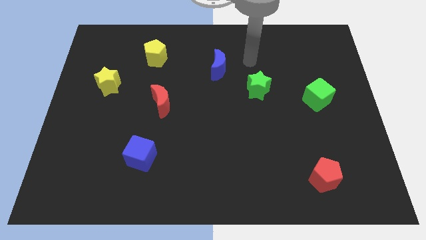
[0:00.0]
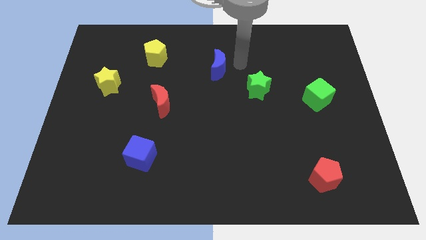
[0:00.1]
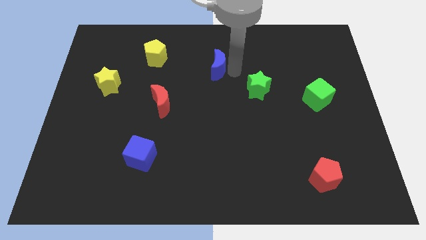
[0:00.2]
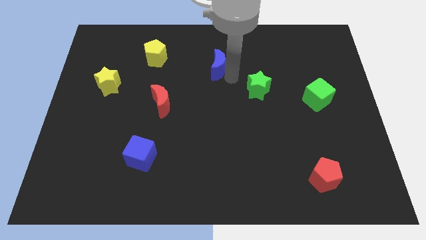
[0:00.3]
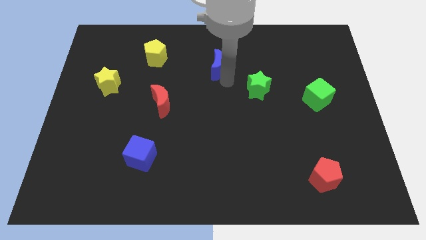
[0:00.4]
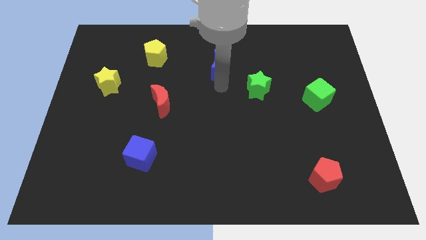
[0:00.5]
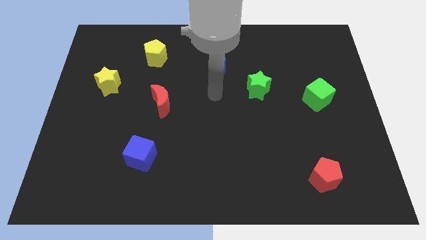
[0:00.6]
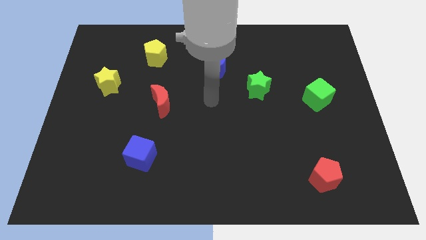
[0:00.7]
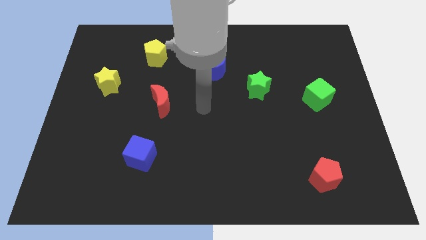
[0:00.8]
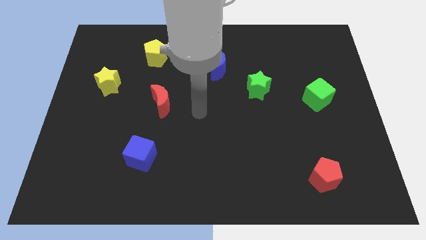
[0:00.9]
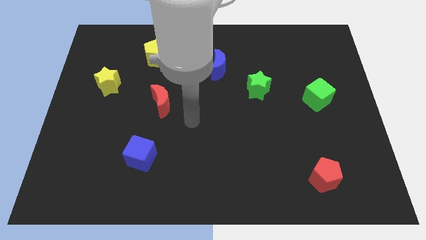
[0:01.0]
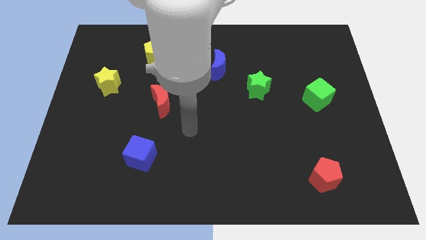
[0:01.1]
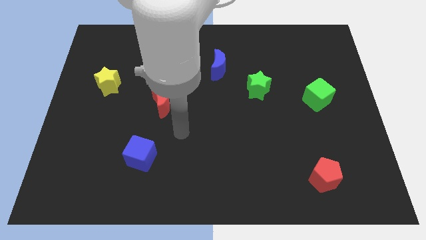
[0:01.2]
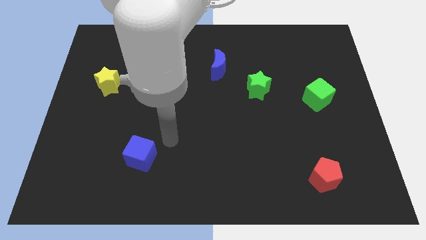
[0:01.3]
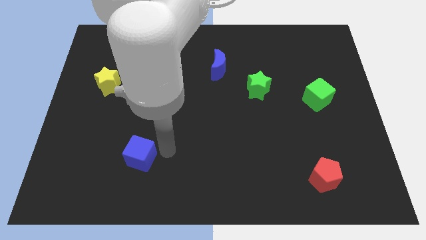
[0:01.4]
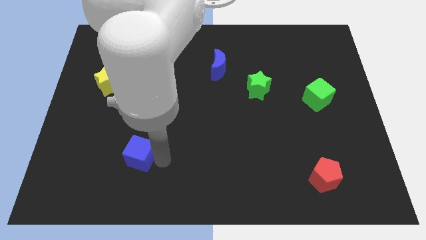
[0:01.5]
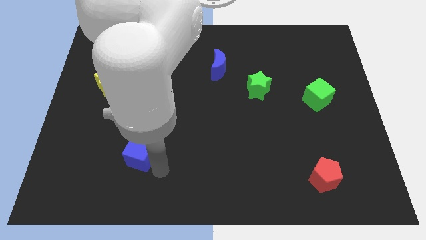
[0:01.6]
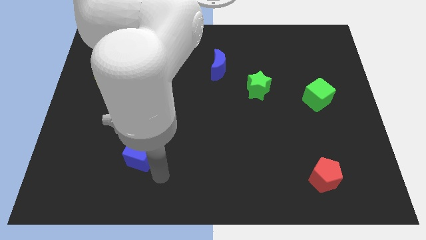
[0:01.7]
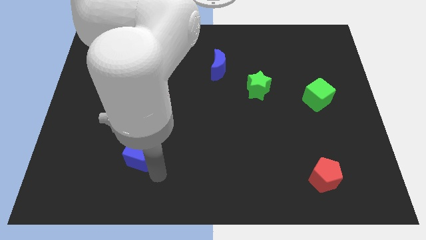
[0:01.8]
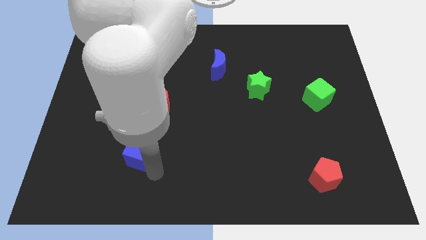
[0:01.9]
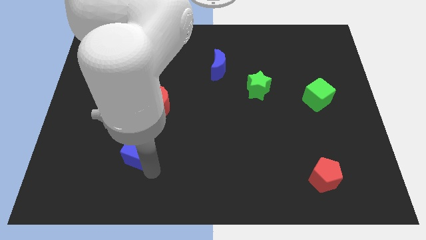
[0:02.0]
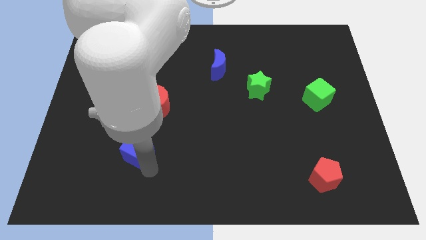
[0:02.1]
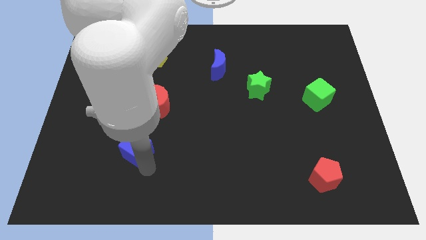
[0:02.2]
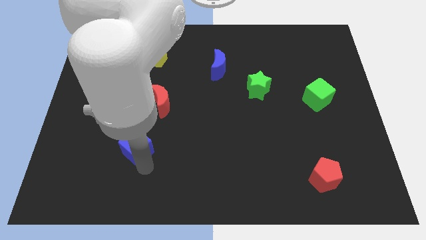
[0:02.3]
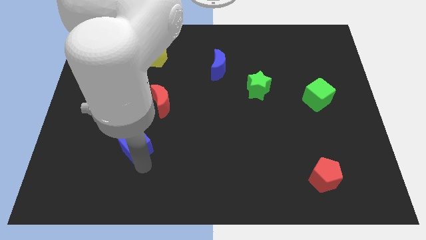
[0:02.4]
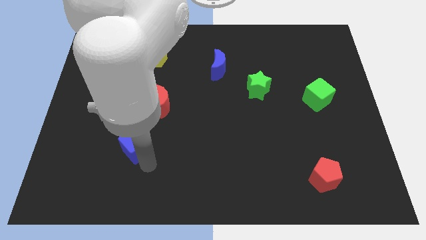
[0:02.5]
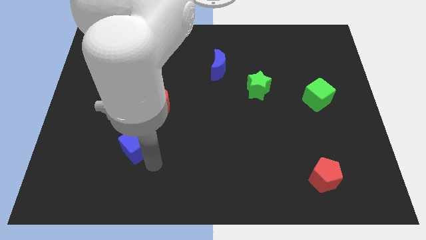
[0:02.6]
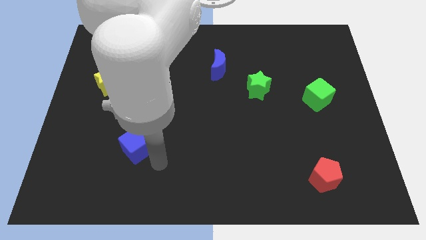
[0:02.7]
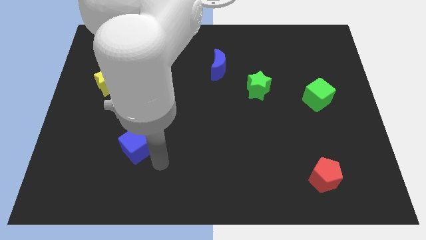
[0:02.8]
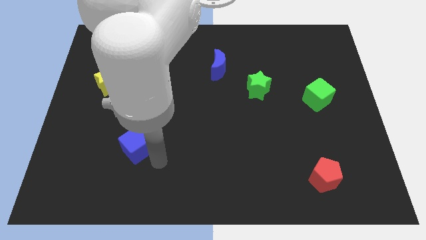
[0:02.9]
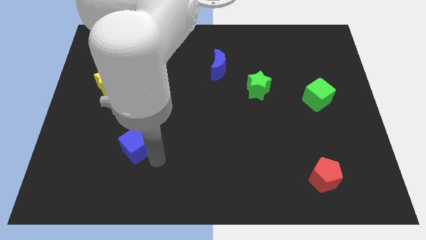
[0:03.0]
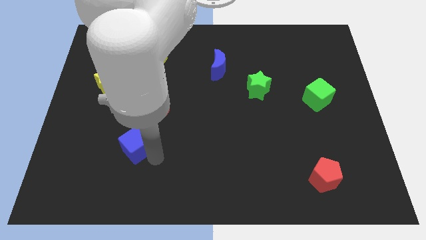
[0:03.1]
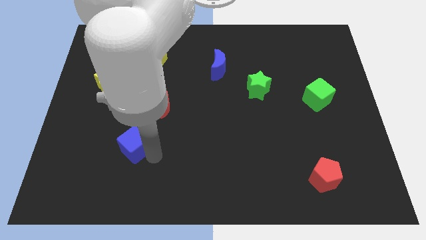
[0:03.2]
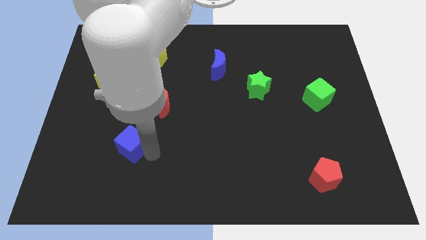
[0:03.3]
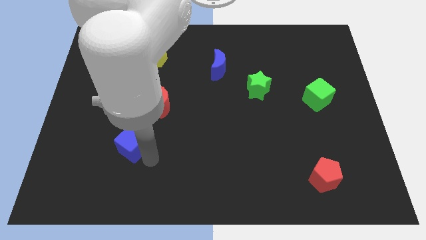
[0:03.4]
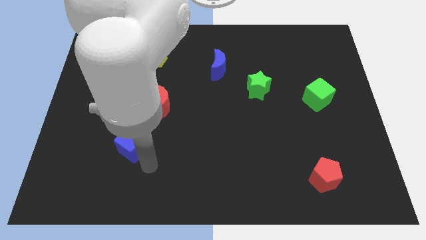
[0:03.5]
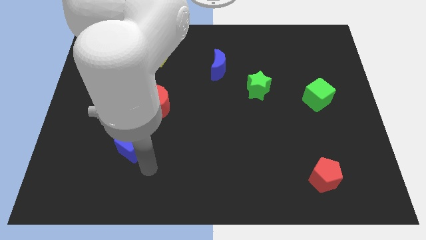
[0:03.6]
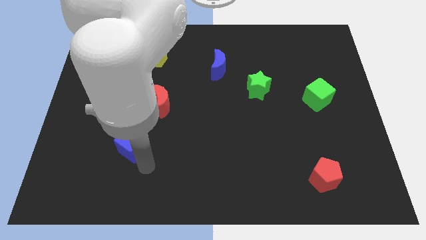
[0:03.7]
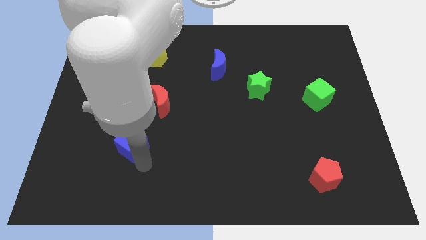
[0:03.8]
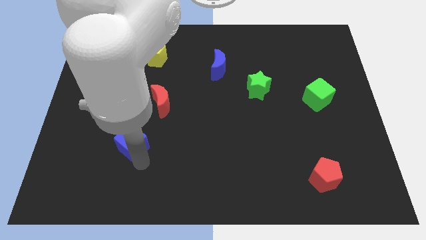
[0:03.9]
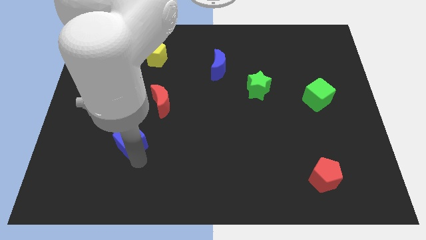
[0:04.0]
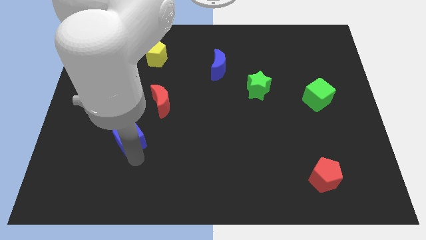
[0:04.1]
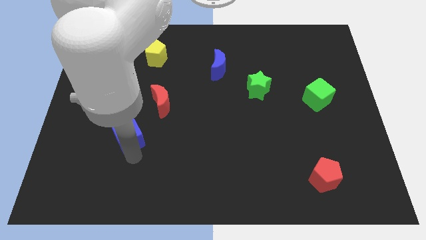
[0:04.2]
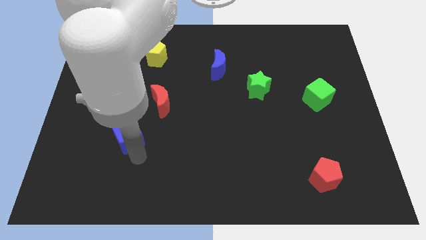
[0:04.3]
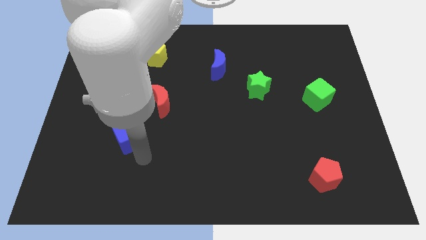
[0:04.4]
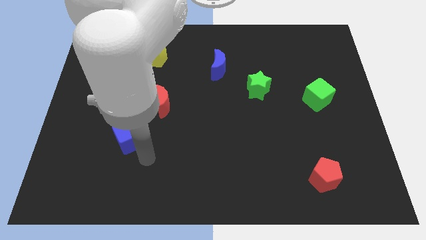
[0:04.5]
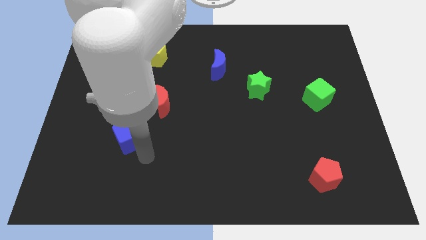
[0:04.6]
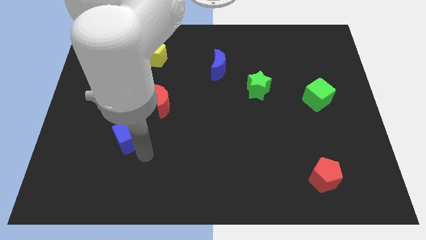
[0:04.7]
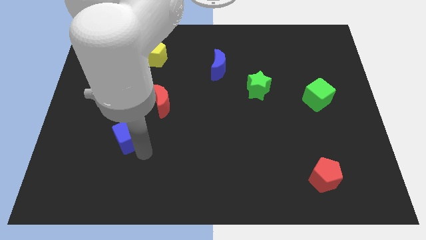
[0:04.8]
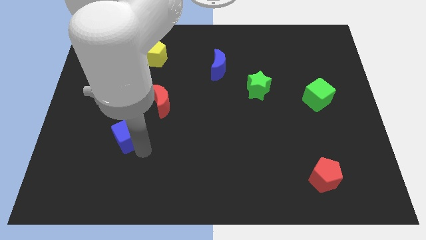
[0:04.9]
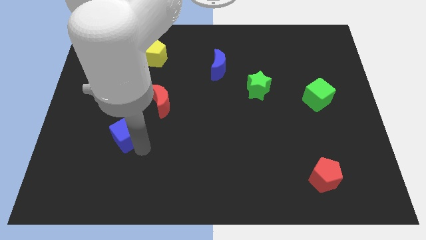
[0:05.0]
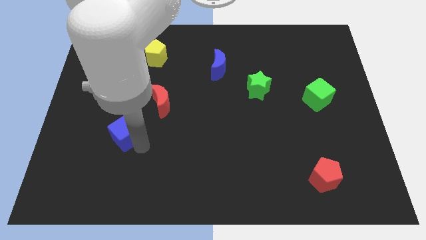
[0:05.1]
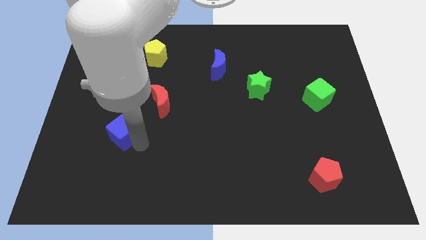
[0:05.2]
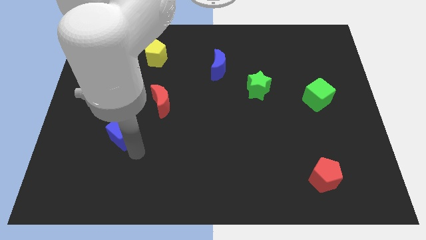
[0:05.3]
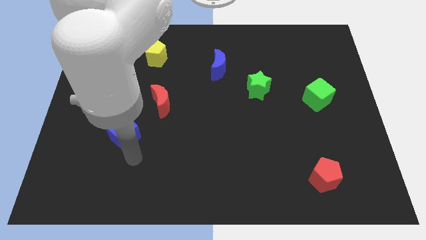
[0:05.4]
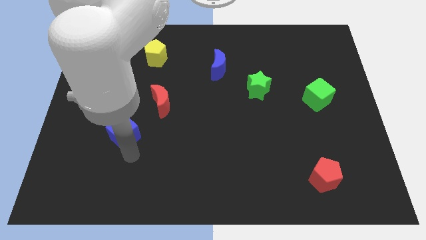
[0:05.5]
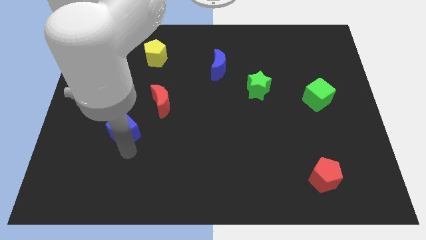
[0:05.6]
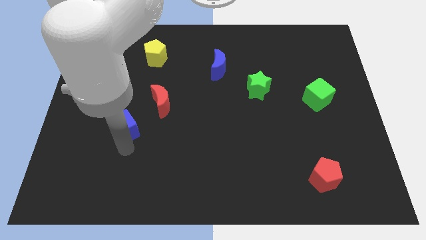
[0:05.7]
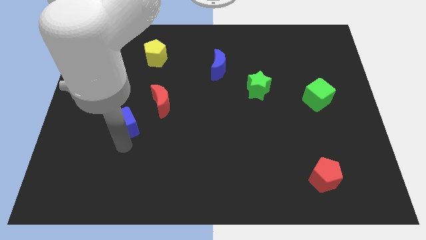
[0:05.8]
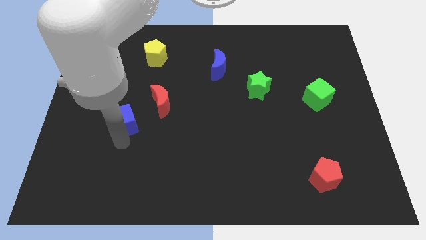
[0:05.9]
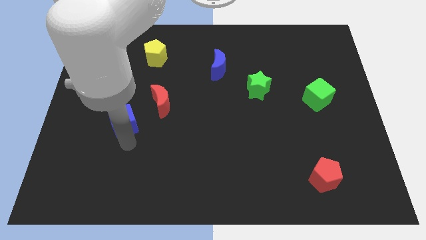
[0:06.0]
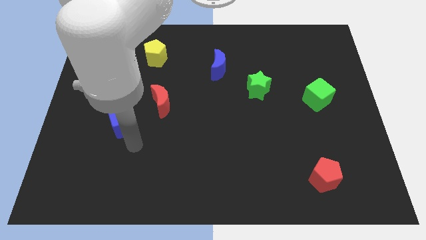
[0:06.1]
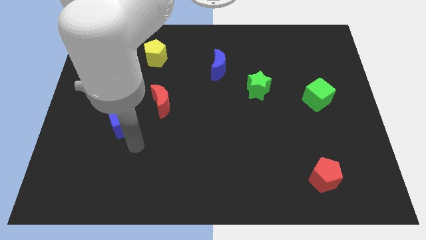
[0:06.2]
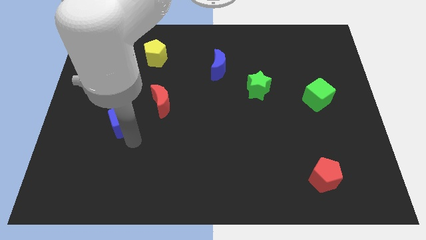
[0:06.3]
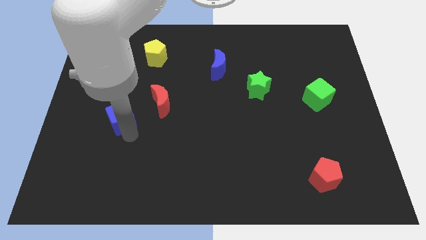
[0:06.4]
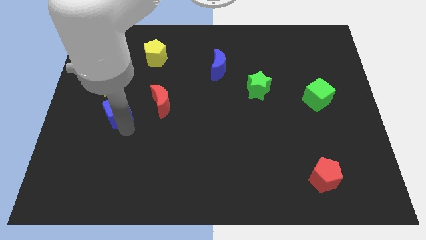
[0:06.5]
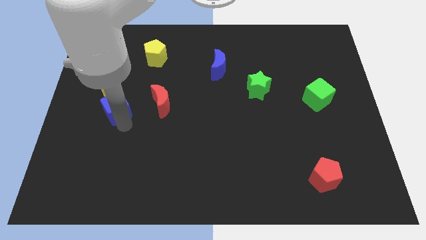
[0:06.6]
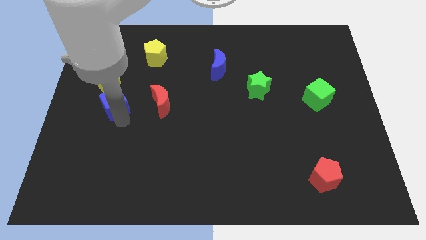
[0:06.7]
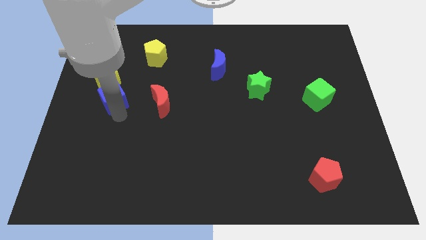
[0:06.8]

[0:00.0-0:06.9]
put the blue cube close to the yellow star

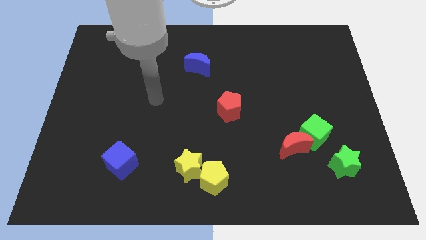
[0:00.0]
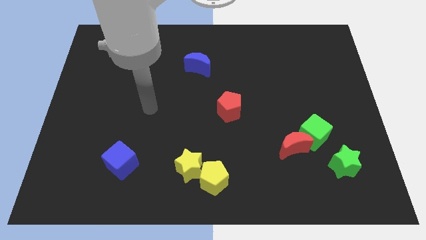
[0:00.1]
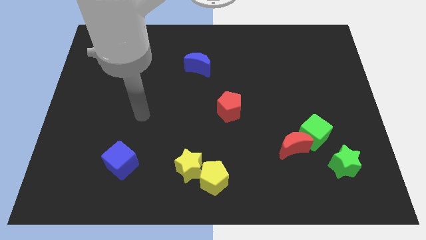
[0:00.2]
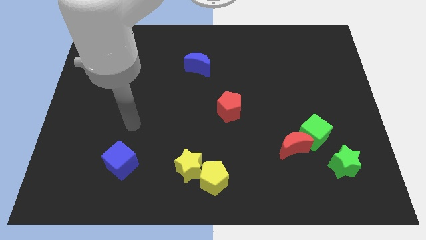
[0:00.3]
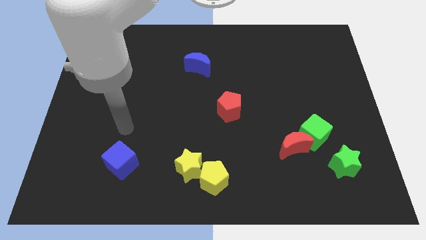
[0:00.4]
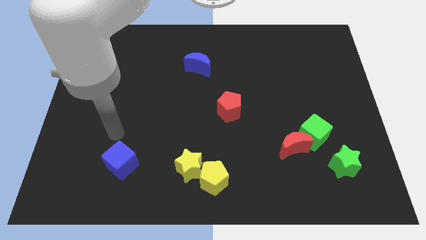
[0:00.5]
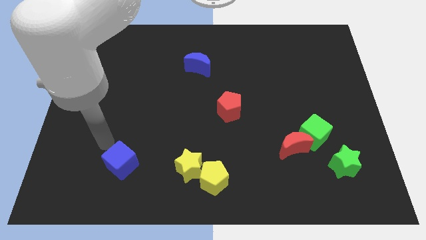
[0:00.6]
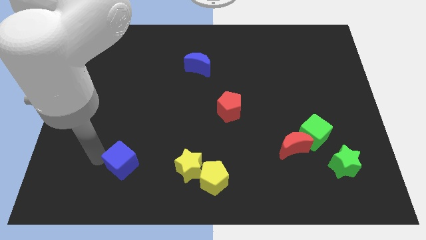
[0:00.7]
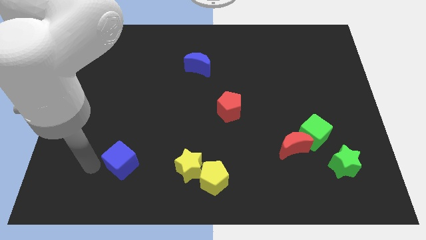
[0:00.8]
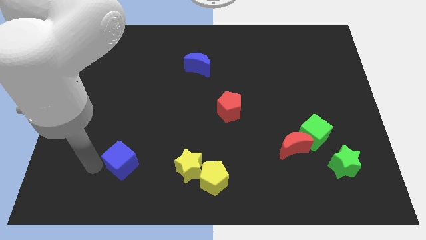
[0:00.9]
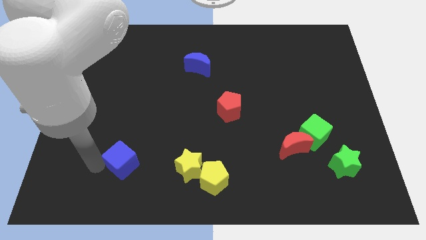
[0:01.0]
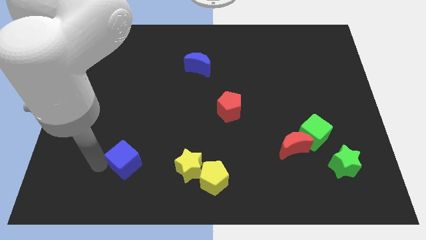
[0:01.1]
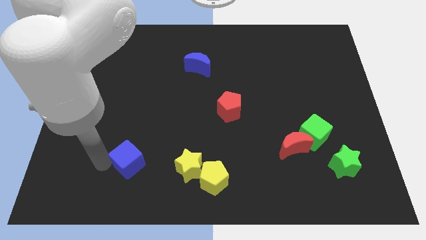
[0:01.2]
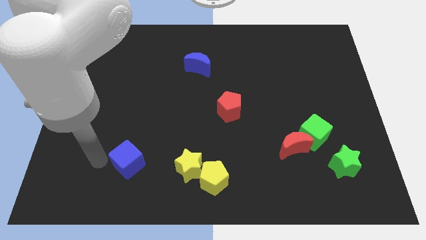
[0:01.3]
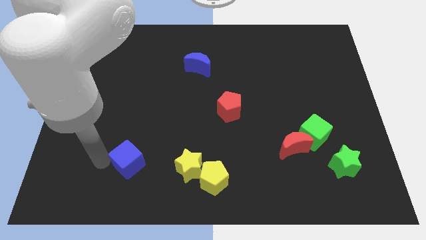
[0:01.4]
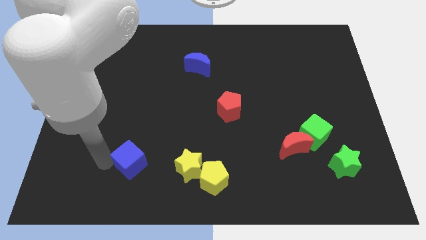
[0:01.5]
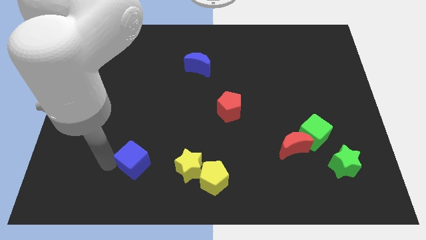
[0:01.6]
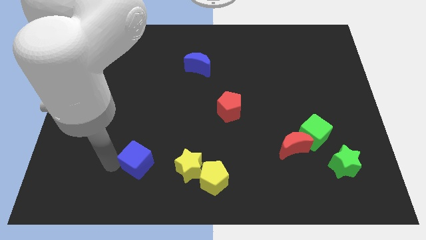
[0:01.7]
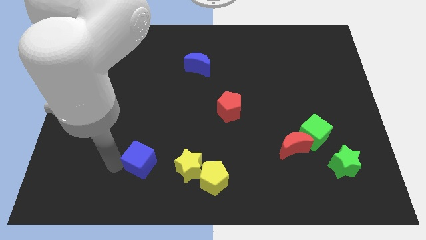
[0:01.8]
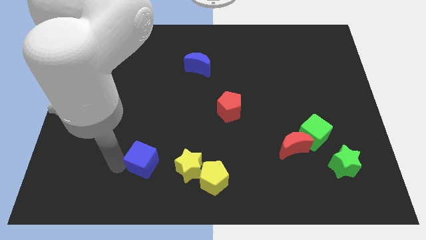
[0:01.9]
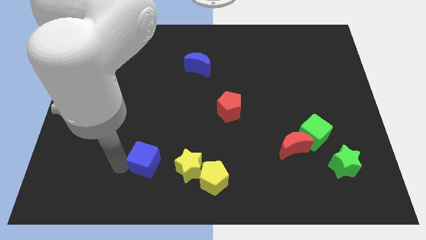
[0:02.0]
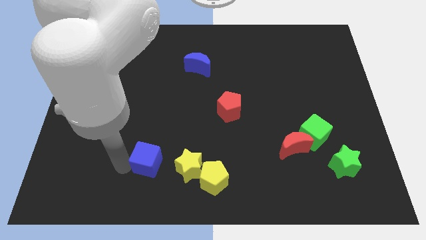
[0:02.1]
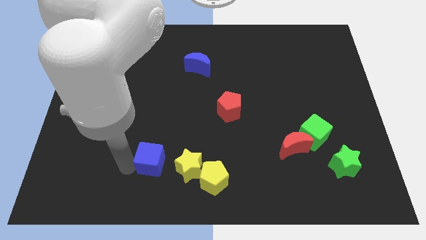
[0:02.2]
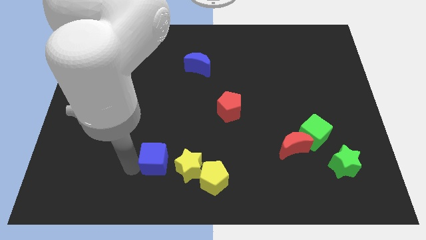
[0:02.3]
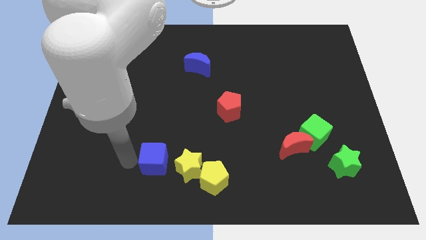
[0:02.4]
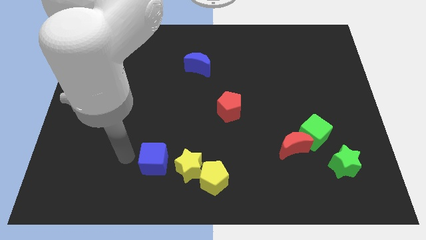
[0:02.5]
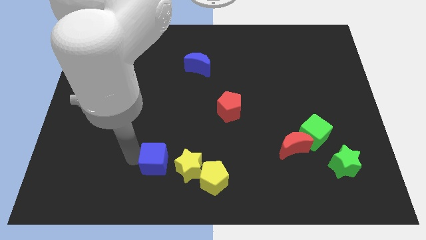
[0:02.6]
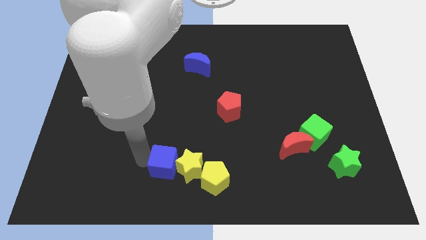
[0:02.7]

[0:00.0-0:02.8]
slide the blue cube to the yellow star
